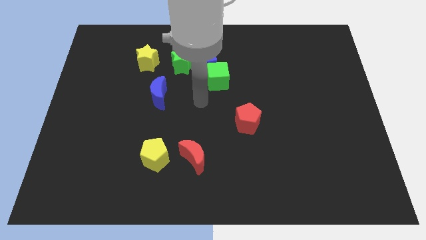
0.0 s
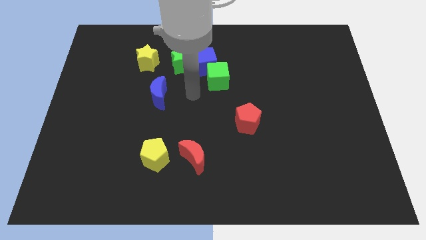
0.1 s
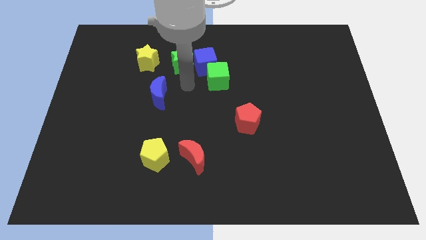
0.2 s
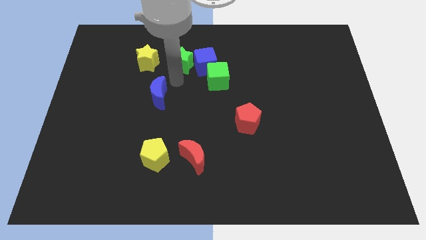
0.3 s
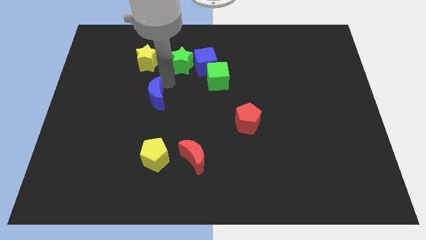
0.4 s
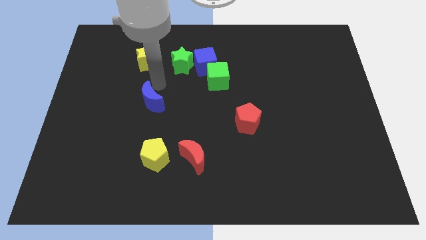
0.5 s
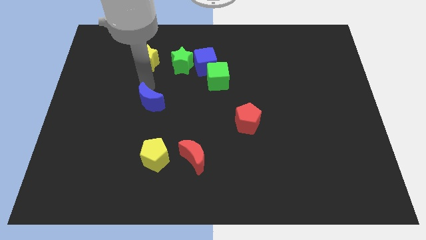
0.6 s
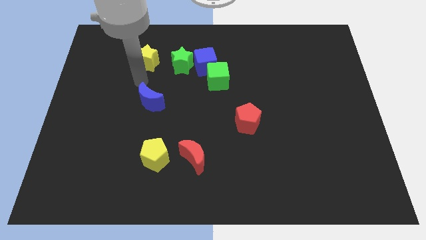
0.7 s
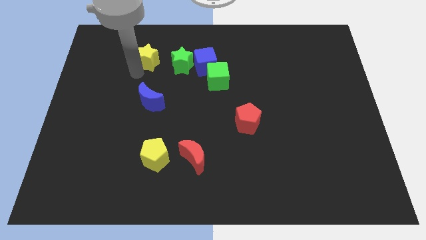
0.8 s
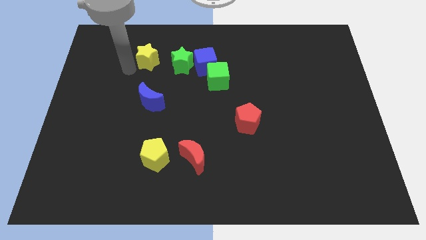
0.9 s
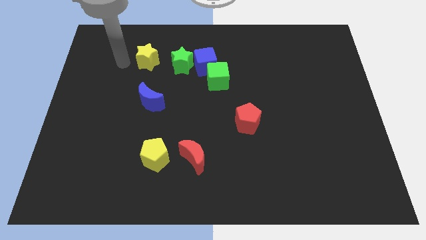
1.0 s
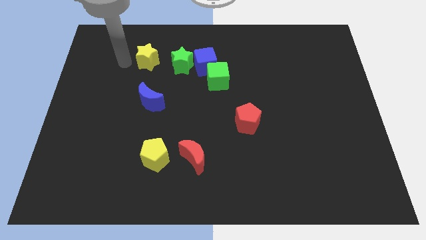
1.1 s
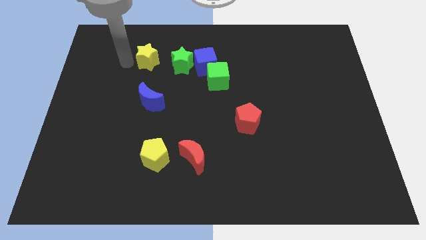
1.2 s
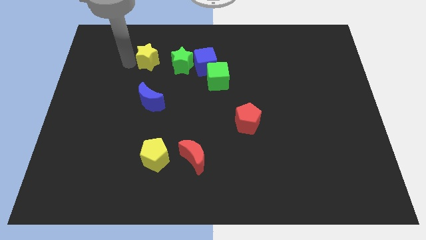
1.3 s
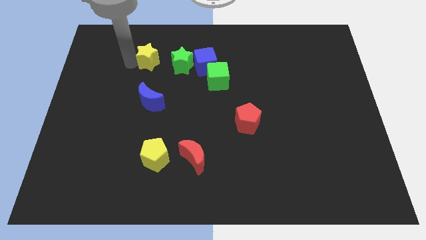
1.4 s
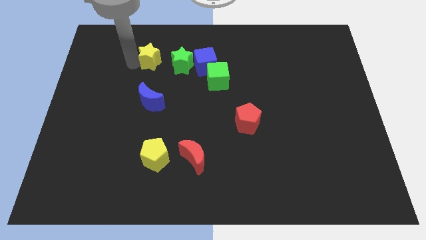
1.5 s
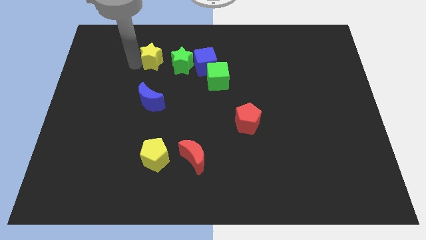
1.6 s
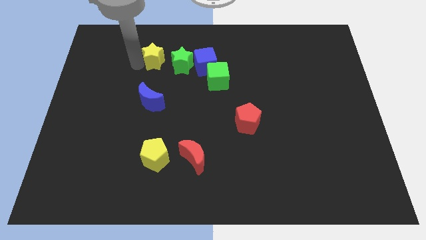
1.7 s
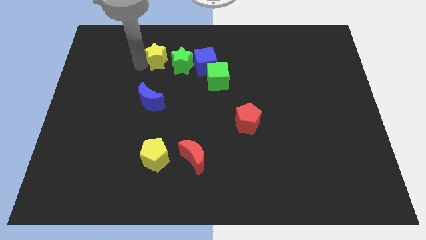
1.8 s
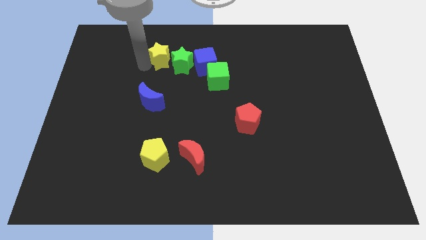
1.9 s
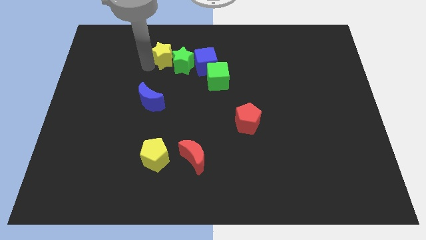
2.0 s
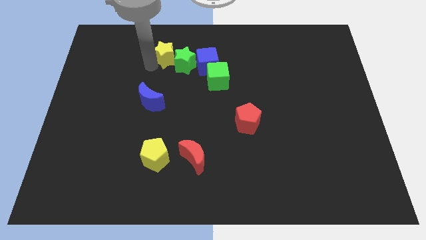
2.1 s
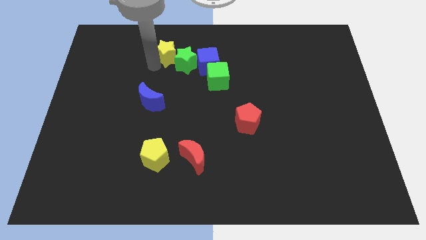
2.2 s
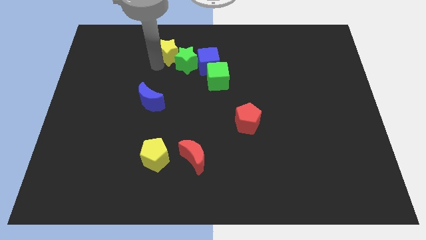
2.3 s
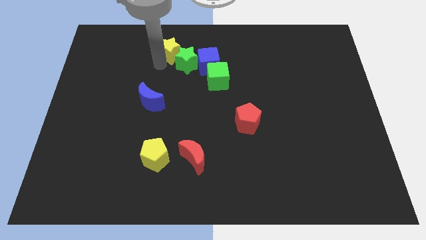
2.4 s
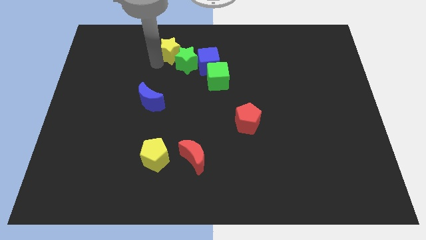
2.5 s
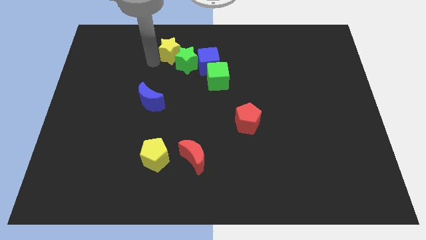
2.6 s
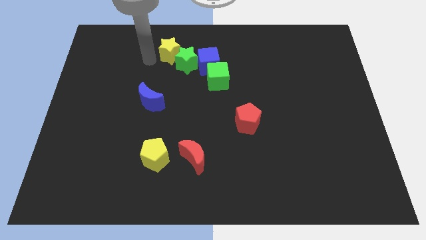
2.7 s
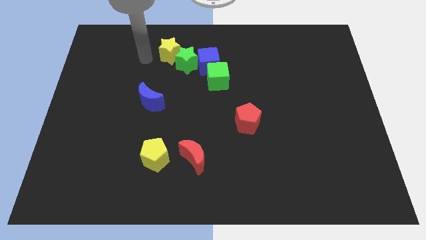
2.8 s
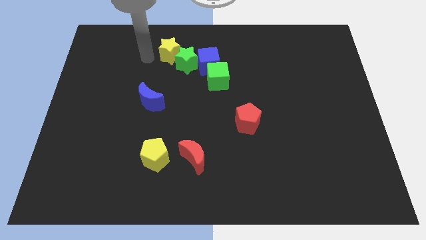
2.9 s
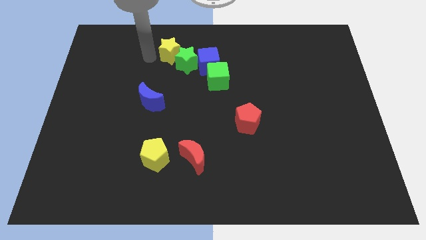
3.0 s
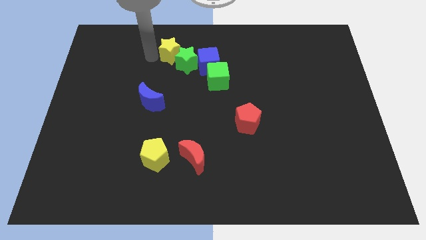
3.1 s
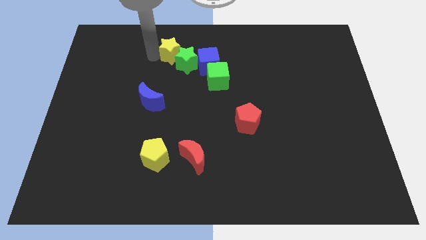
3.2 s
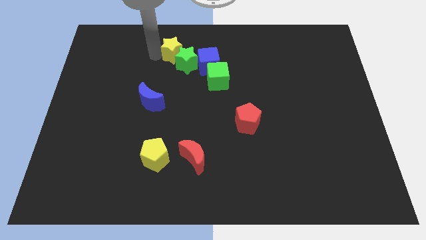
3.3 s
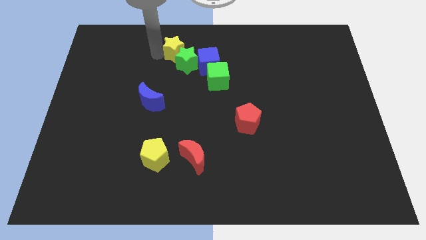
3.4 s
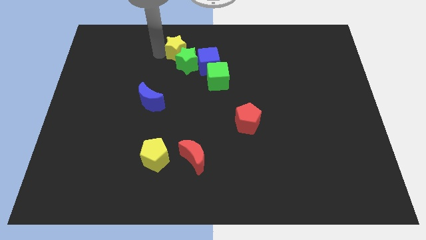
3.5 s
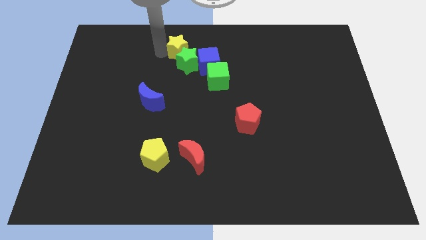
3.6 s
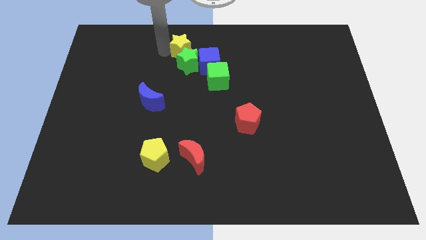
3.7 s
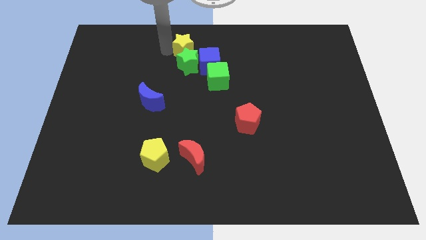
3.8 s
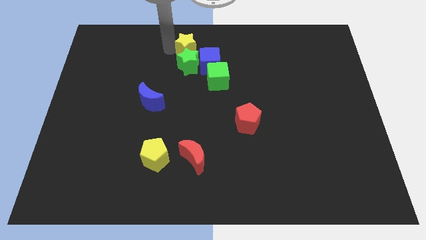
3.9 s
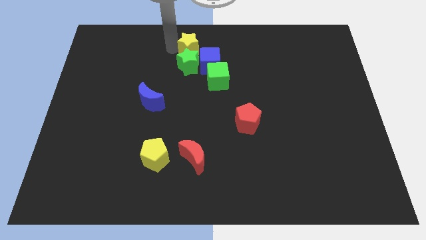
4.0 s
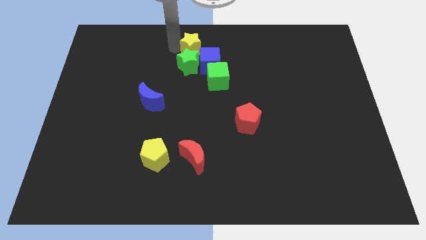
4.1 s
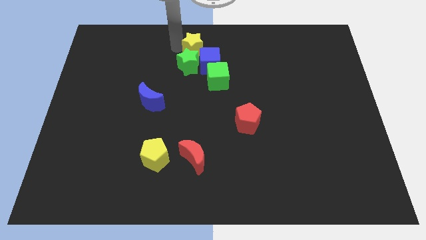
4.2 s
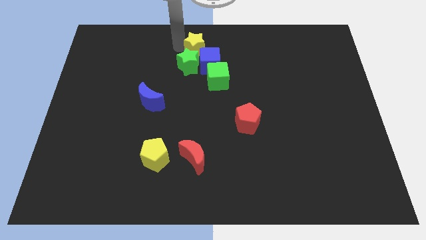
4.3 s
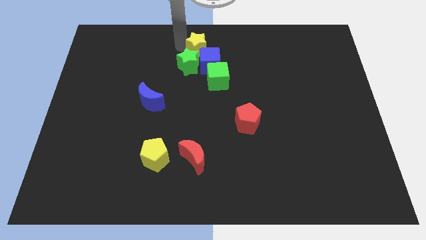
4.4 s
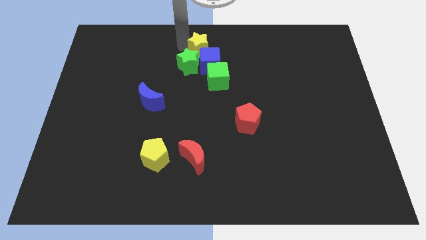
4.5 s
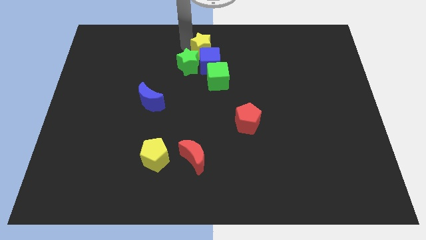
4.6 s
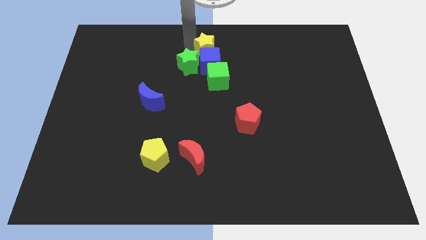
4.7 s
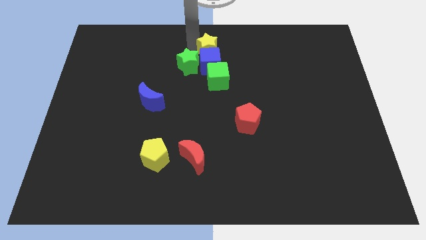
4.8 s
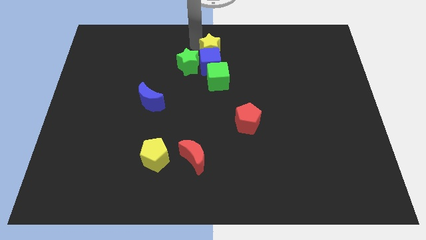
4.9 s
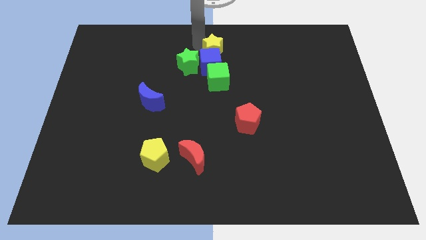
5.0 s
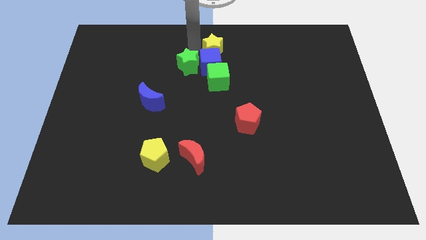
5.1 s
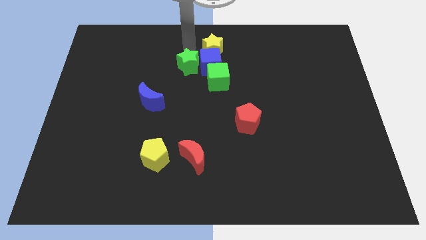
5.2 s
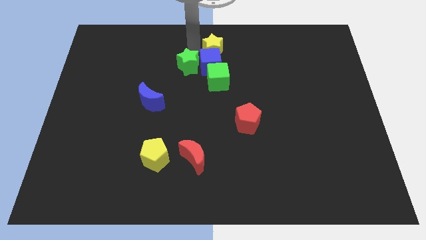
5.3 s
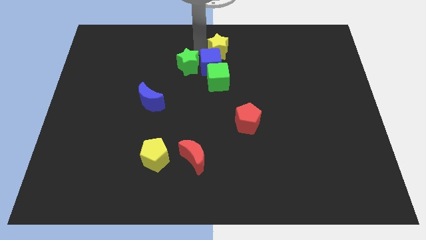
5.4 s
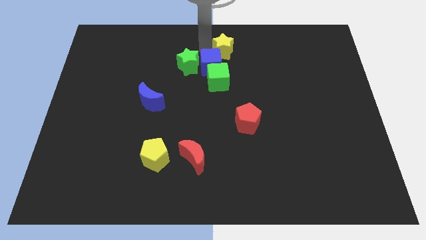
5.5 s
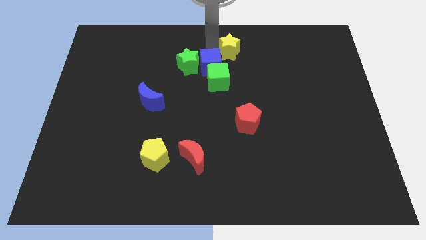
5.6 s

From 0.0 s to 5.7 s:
push the yellow star right

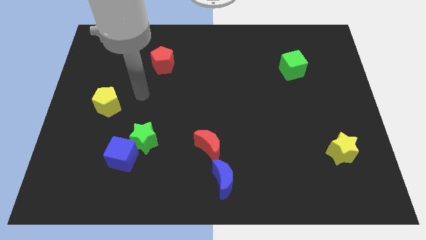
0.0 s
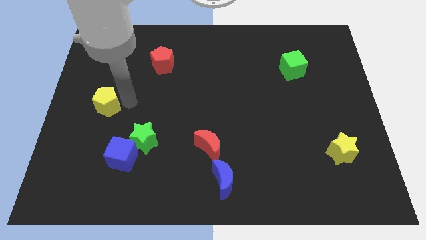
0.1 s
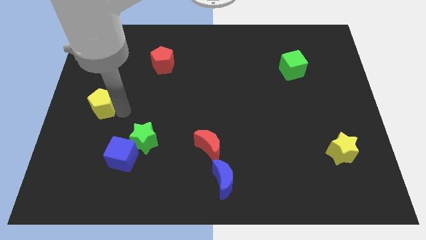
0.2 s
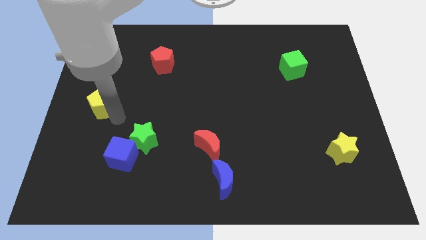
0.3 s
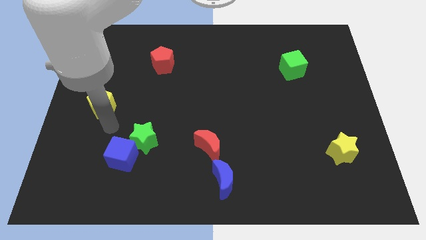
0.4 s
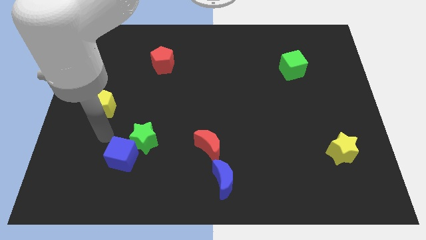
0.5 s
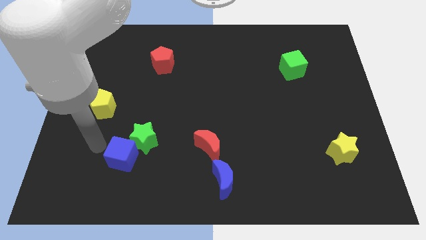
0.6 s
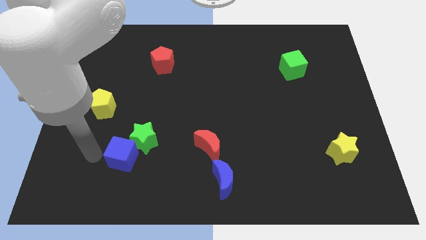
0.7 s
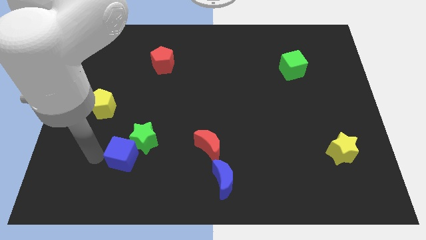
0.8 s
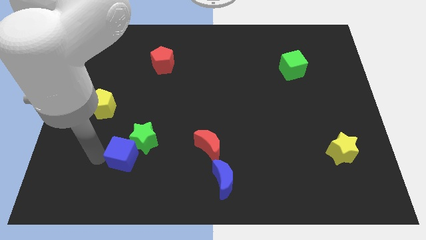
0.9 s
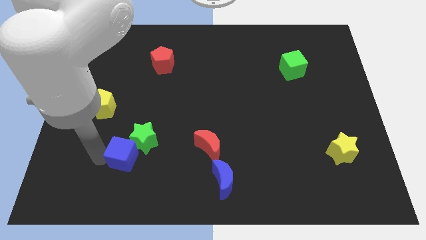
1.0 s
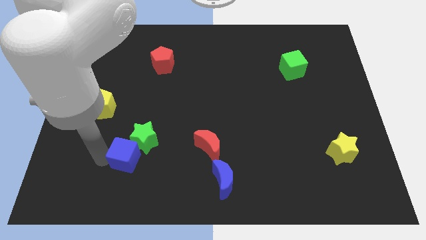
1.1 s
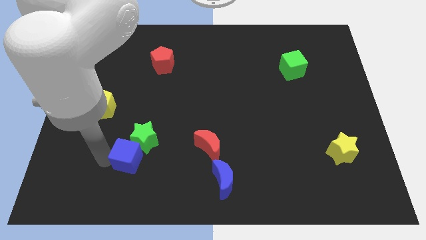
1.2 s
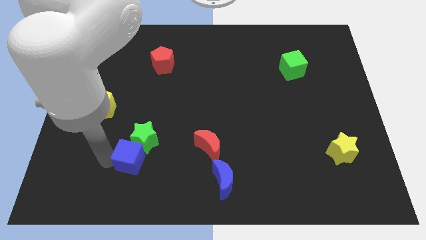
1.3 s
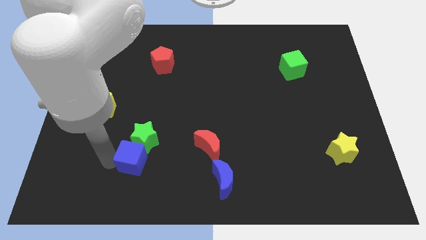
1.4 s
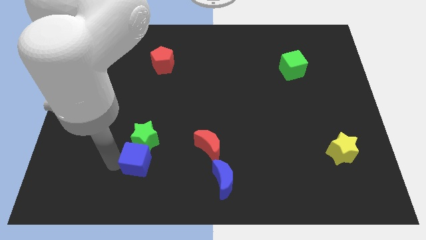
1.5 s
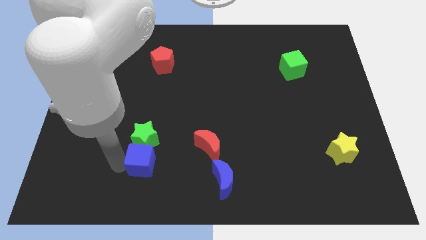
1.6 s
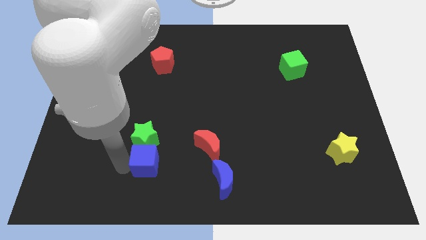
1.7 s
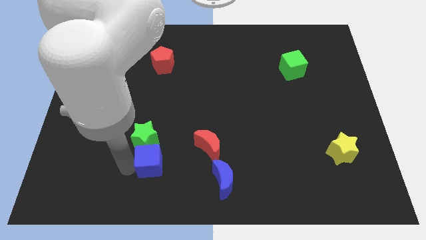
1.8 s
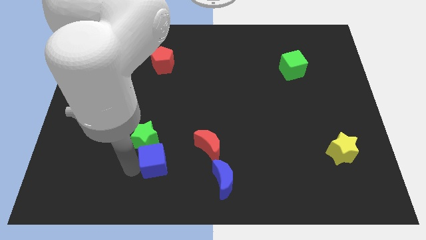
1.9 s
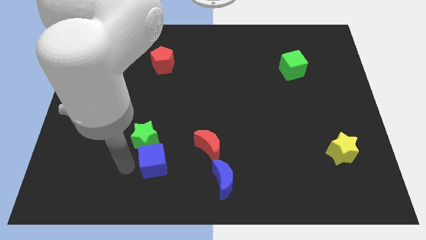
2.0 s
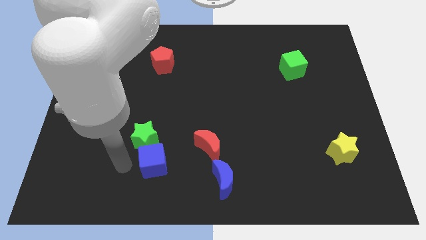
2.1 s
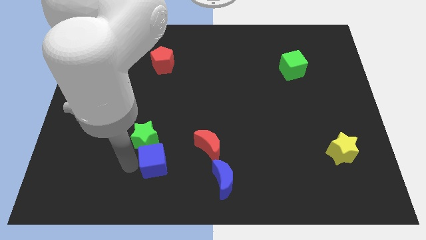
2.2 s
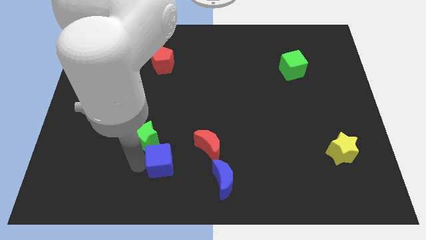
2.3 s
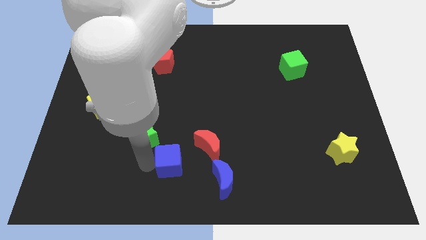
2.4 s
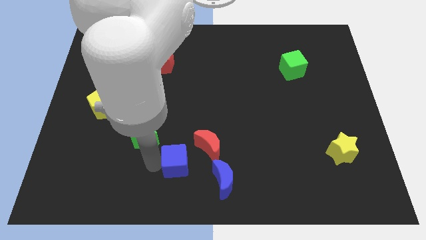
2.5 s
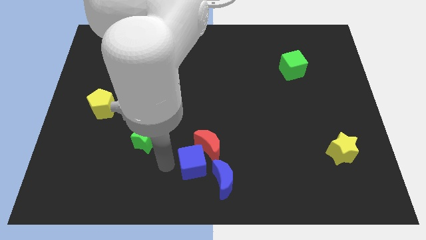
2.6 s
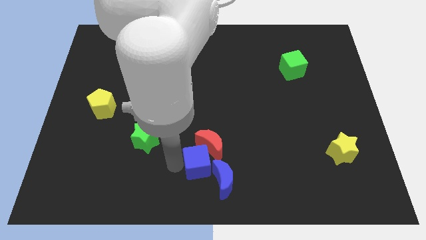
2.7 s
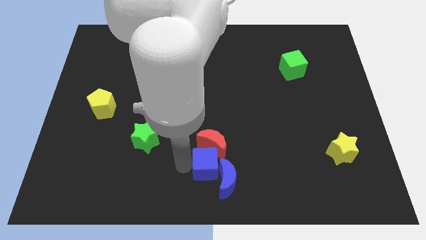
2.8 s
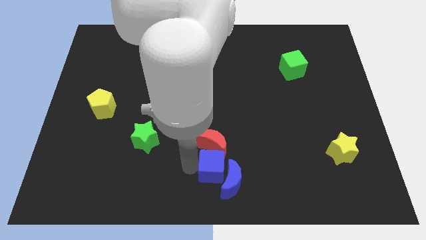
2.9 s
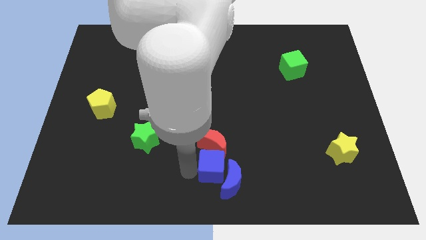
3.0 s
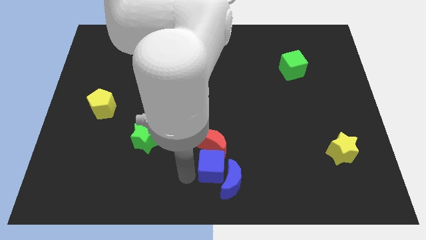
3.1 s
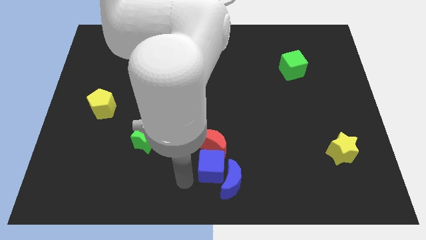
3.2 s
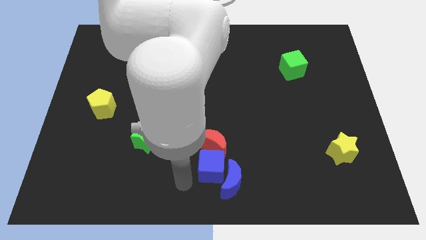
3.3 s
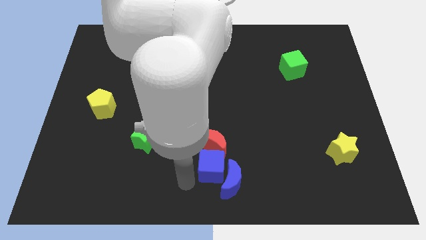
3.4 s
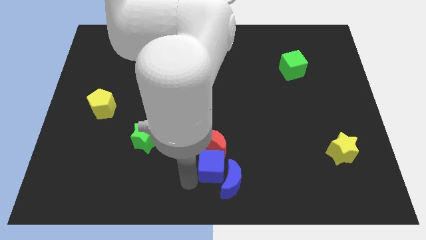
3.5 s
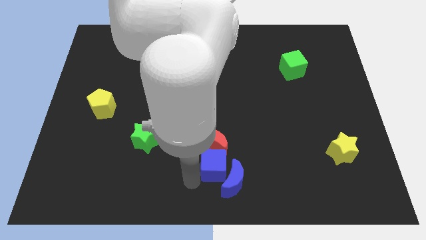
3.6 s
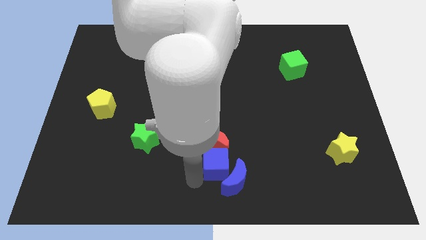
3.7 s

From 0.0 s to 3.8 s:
move the blue cube to the right
